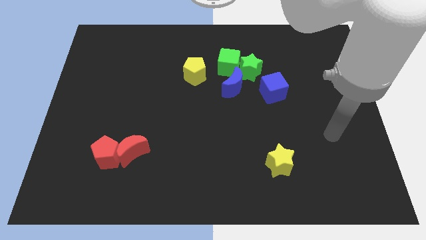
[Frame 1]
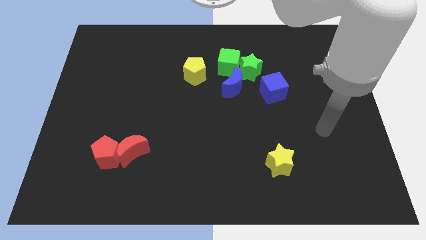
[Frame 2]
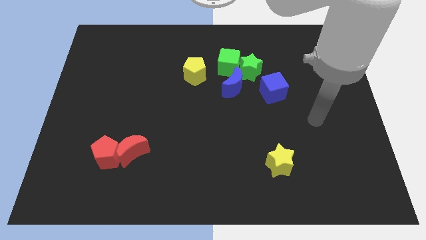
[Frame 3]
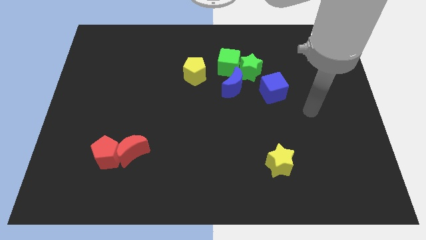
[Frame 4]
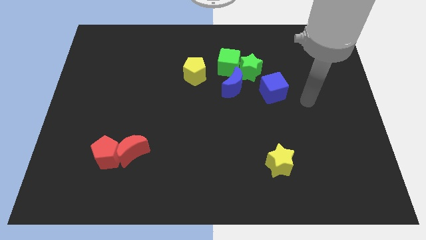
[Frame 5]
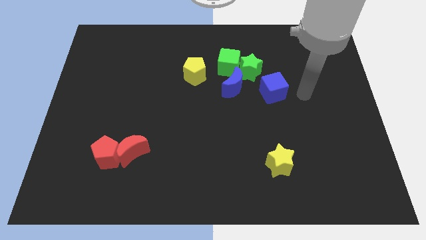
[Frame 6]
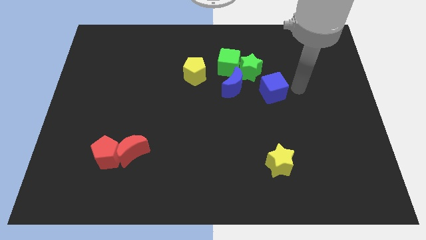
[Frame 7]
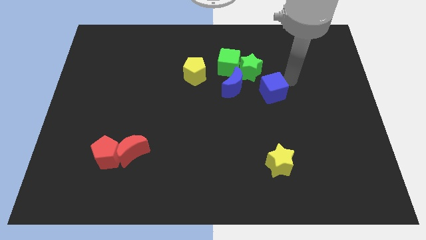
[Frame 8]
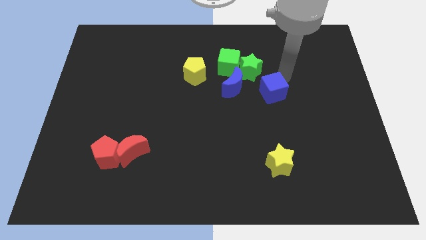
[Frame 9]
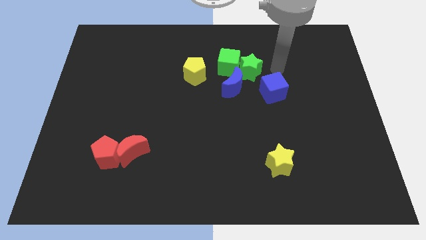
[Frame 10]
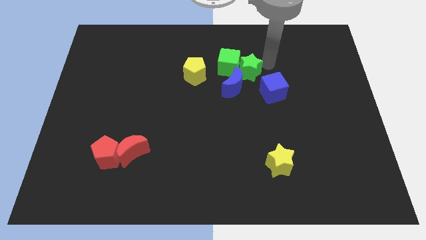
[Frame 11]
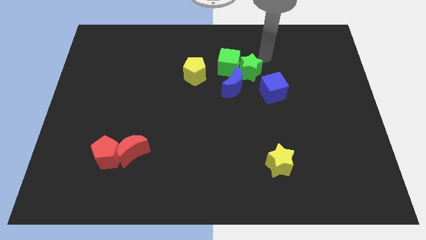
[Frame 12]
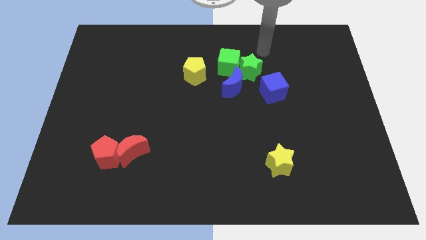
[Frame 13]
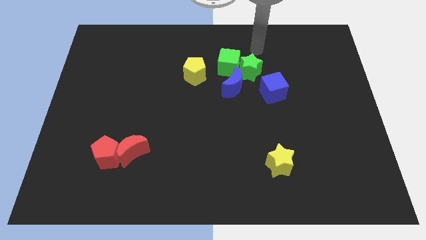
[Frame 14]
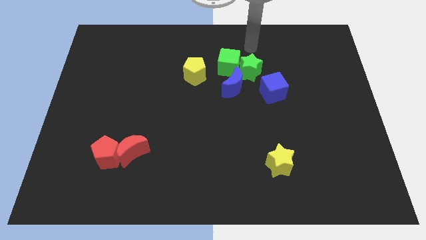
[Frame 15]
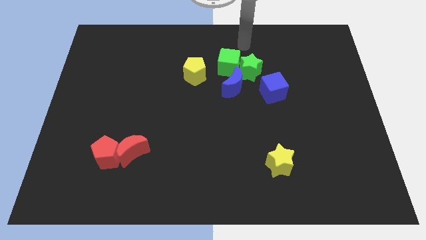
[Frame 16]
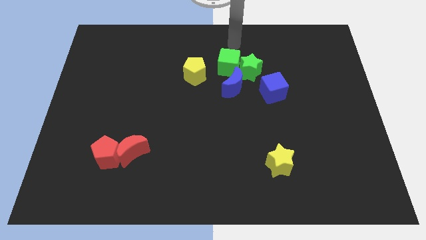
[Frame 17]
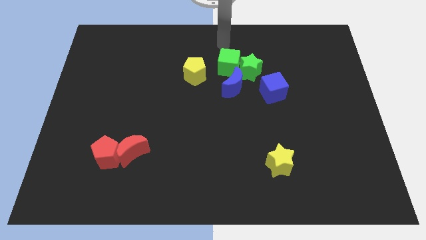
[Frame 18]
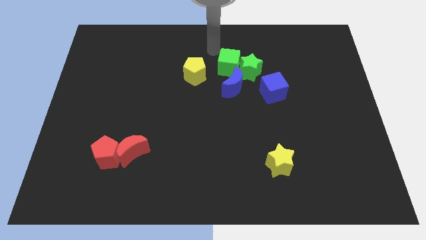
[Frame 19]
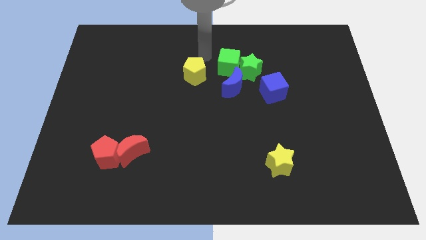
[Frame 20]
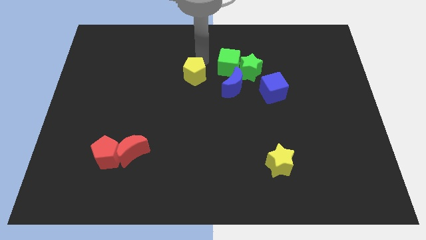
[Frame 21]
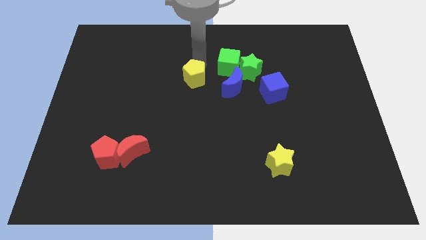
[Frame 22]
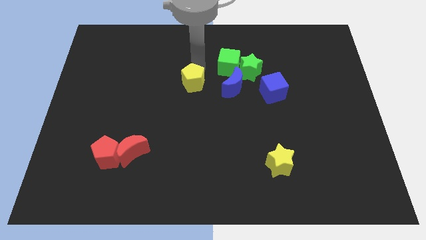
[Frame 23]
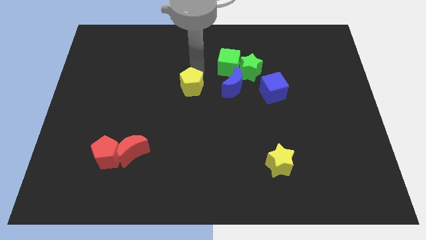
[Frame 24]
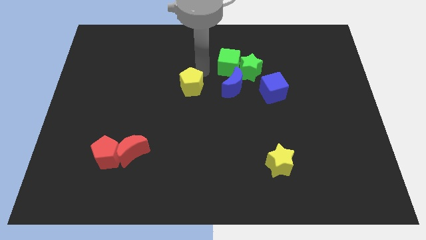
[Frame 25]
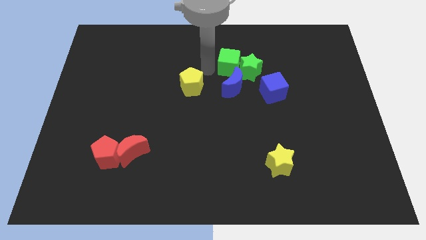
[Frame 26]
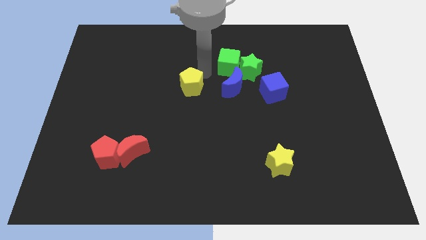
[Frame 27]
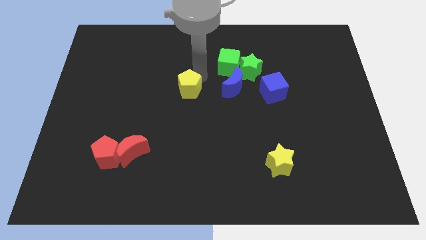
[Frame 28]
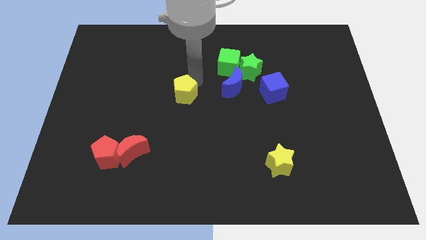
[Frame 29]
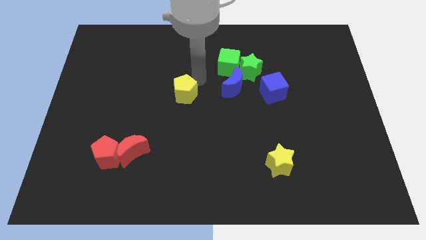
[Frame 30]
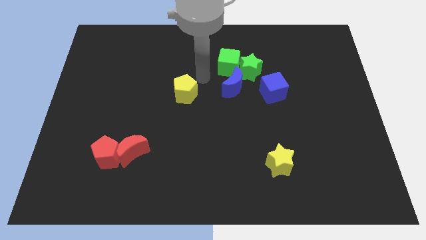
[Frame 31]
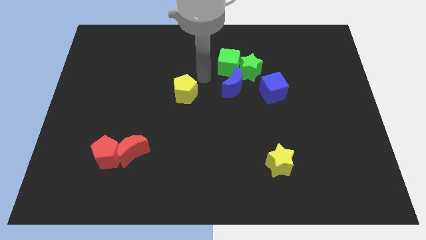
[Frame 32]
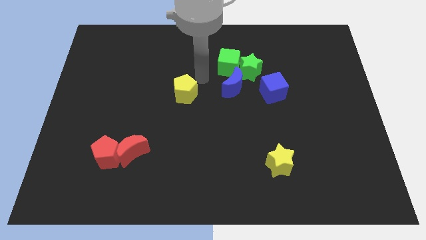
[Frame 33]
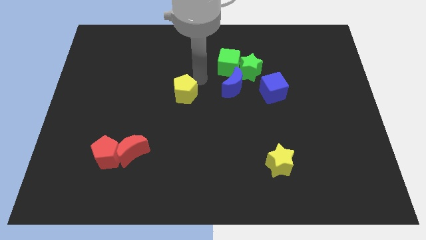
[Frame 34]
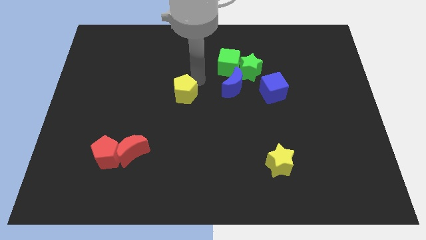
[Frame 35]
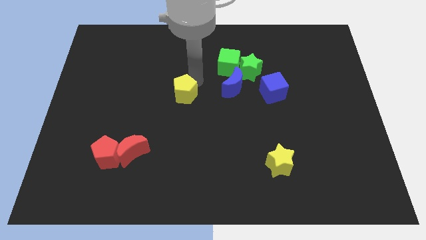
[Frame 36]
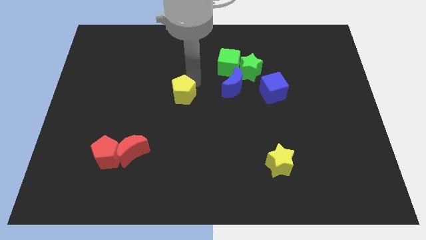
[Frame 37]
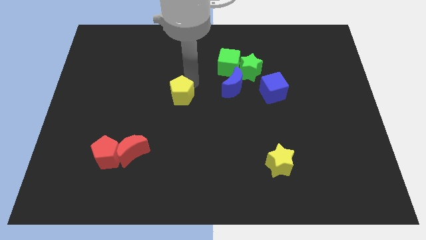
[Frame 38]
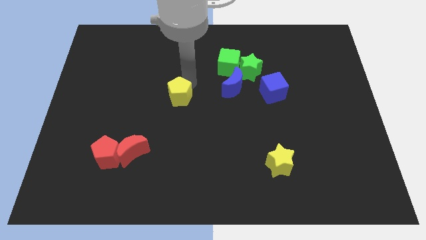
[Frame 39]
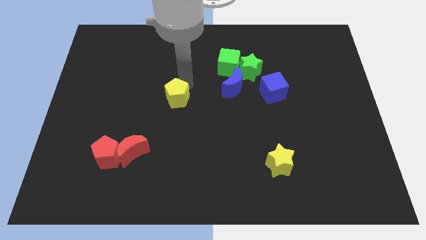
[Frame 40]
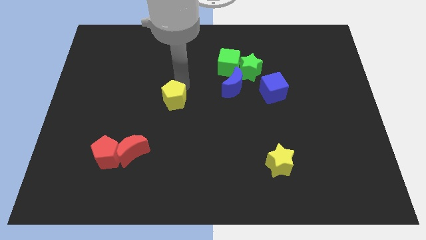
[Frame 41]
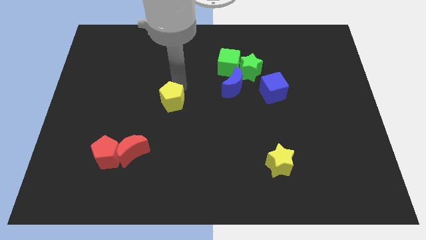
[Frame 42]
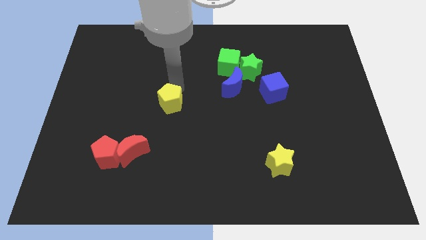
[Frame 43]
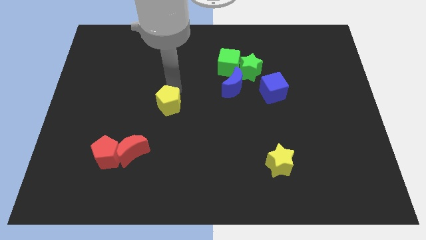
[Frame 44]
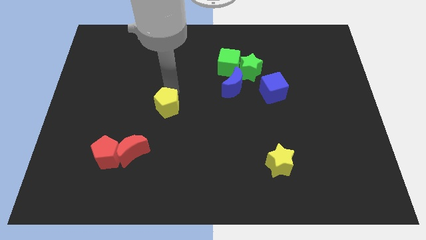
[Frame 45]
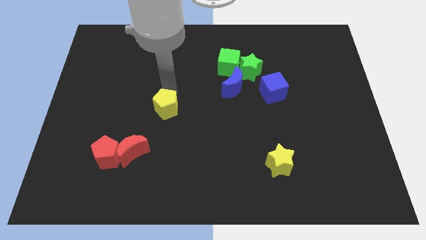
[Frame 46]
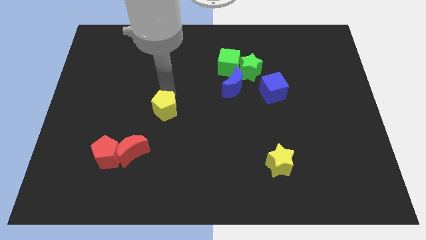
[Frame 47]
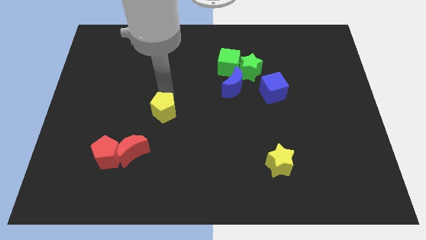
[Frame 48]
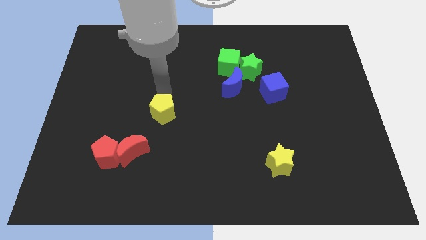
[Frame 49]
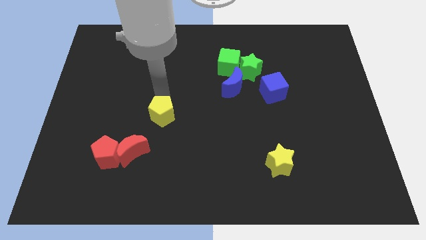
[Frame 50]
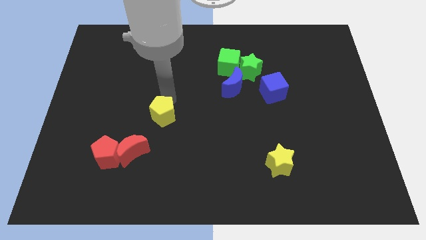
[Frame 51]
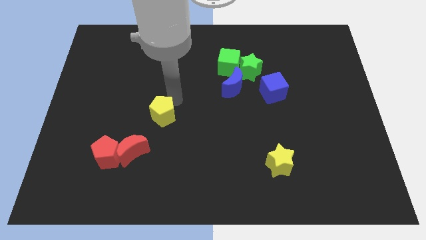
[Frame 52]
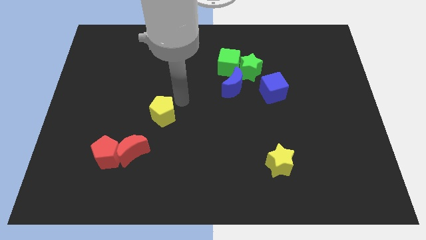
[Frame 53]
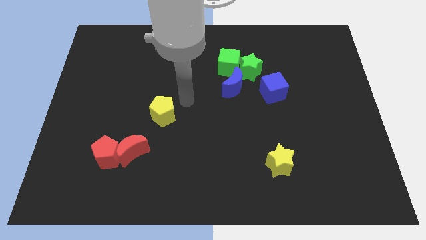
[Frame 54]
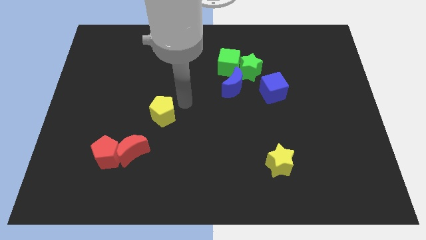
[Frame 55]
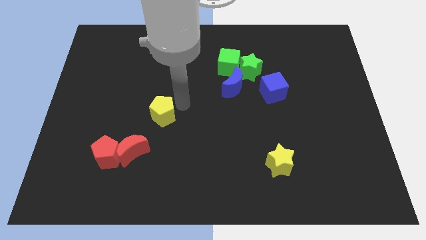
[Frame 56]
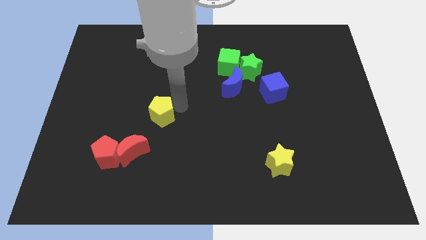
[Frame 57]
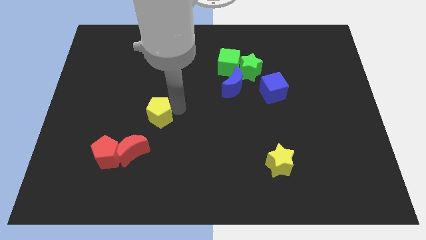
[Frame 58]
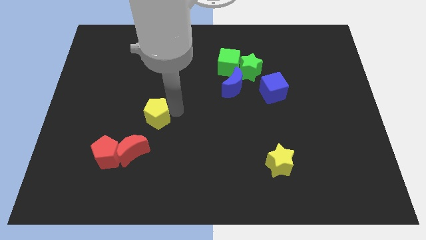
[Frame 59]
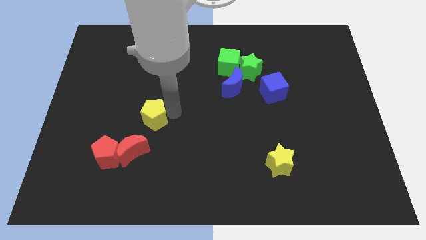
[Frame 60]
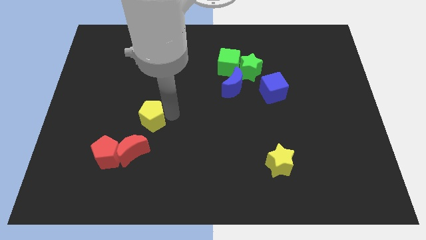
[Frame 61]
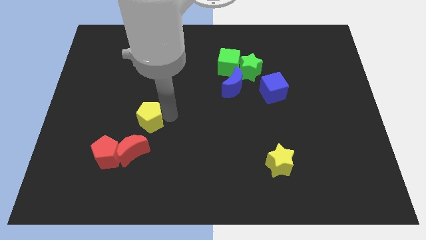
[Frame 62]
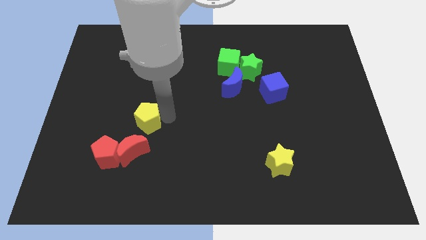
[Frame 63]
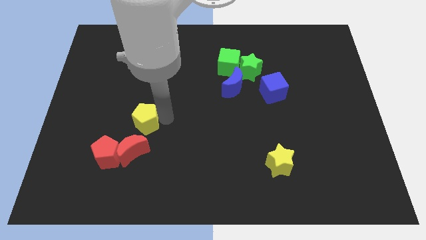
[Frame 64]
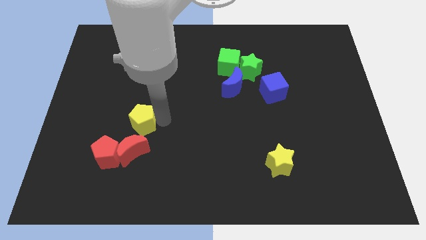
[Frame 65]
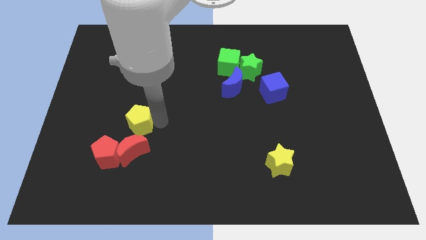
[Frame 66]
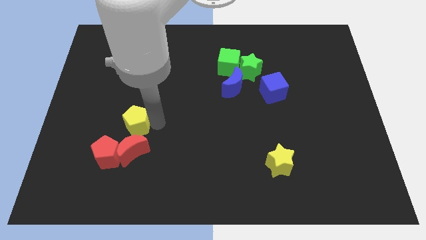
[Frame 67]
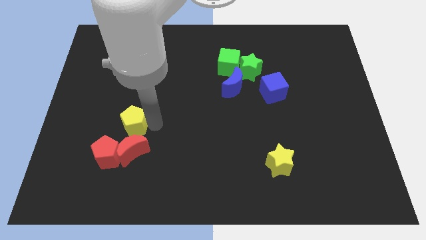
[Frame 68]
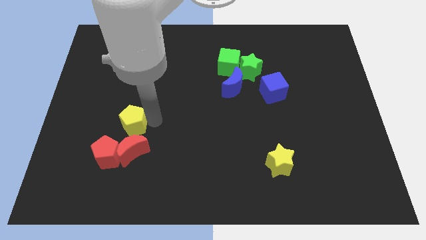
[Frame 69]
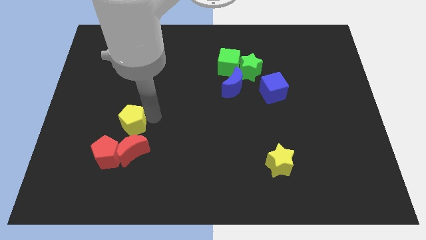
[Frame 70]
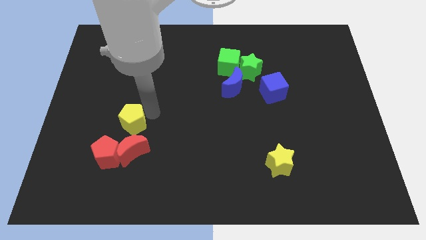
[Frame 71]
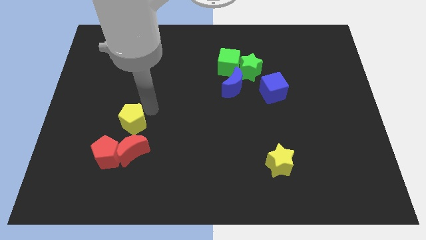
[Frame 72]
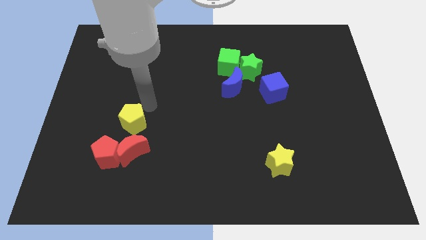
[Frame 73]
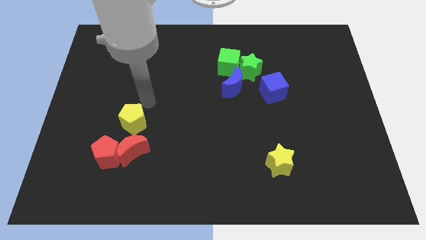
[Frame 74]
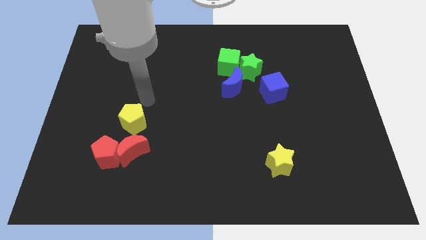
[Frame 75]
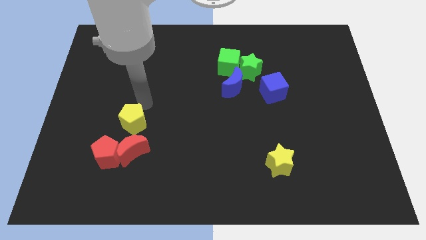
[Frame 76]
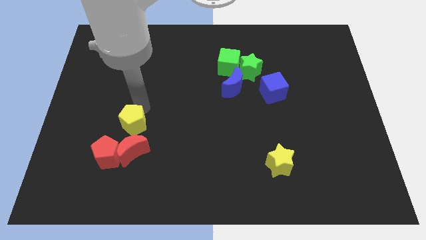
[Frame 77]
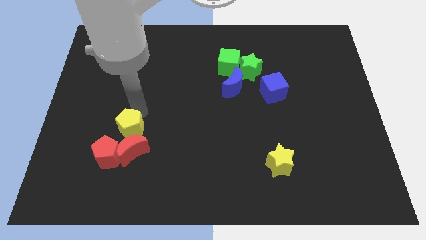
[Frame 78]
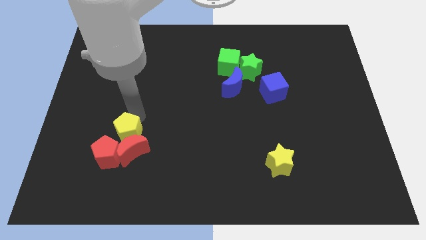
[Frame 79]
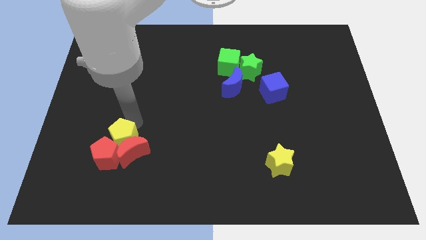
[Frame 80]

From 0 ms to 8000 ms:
slide the yellow pentagon to the red pentagon
